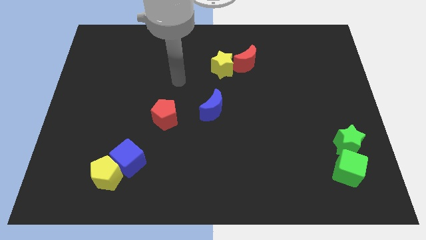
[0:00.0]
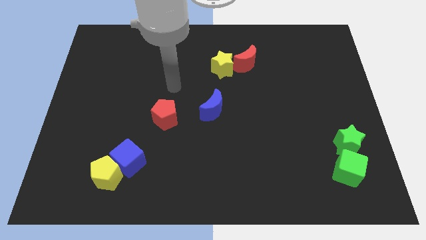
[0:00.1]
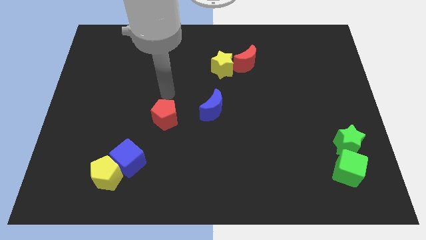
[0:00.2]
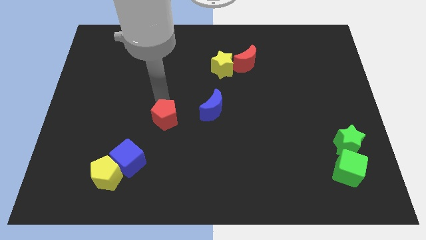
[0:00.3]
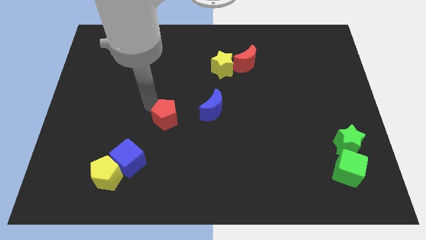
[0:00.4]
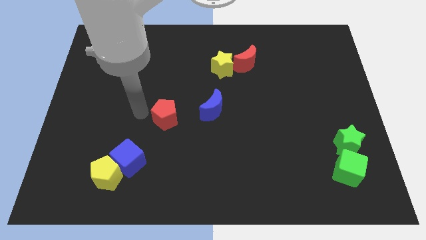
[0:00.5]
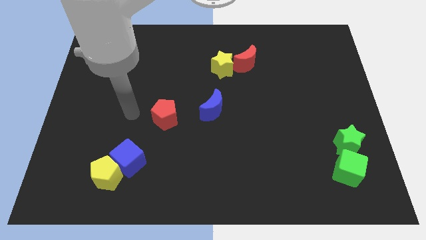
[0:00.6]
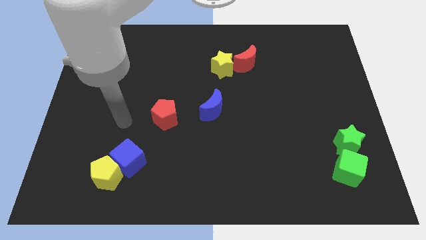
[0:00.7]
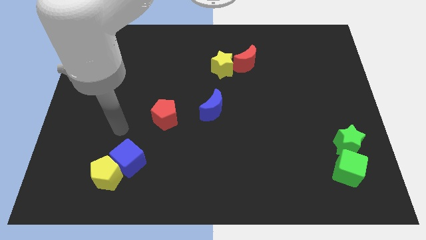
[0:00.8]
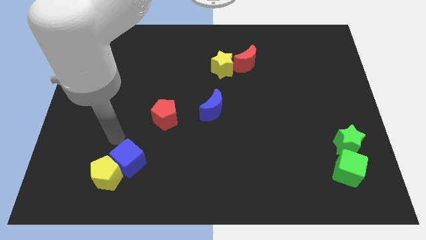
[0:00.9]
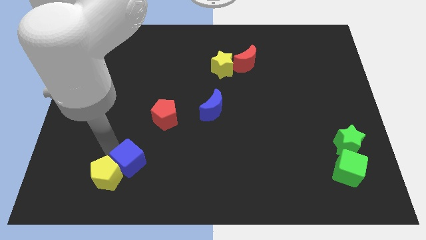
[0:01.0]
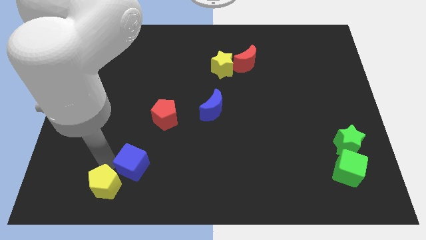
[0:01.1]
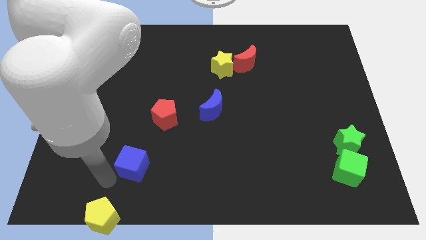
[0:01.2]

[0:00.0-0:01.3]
separate the blue cube from the yellow pentagon

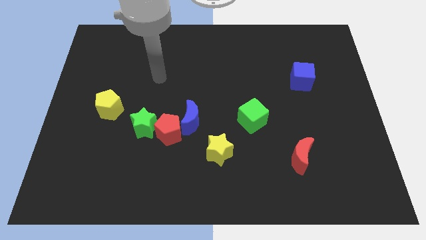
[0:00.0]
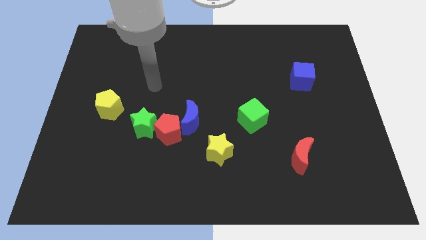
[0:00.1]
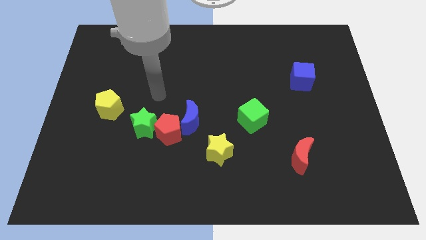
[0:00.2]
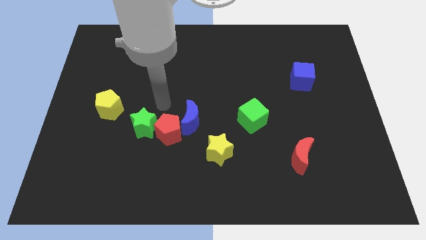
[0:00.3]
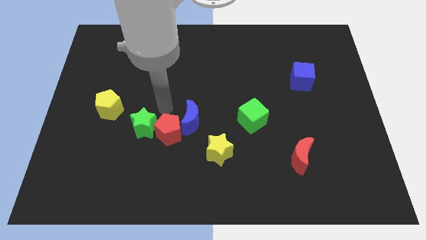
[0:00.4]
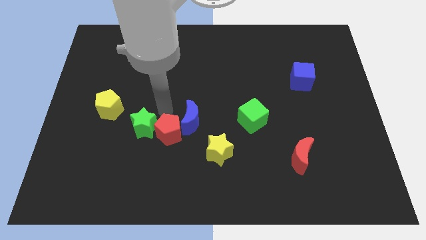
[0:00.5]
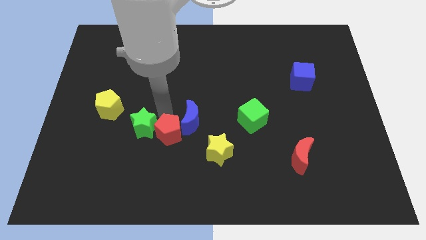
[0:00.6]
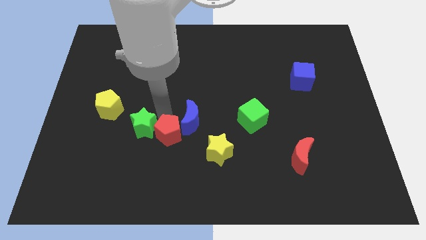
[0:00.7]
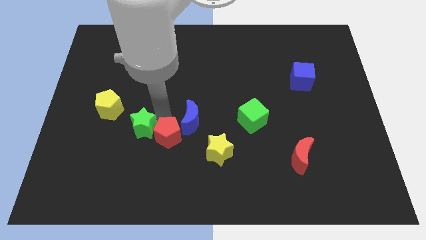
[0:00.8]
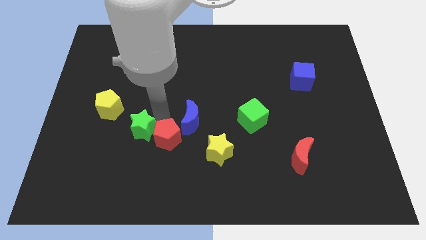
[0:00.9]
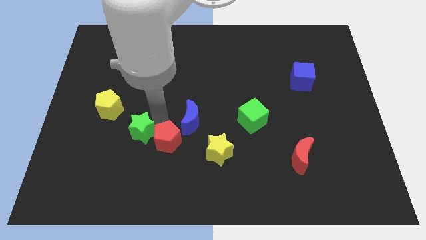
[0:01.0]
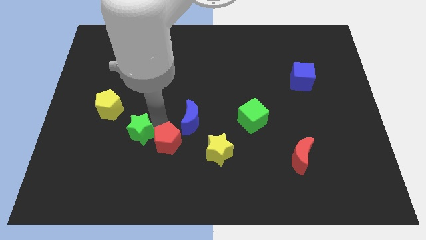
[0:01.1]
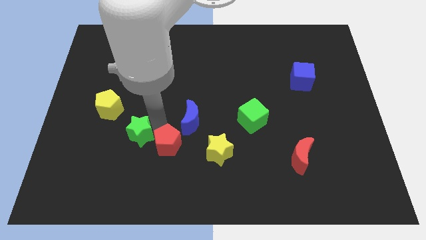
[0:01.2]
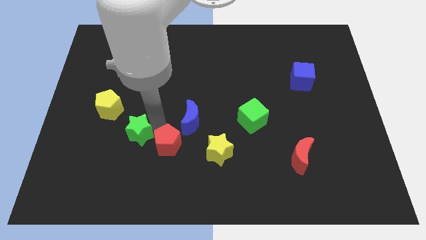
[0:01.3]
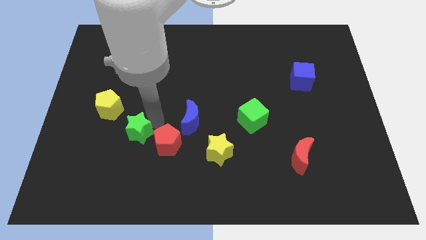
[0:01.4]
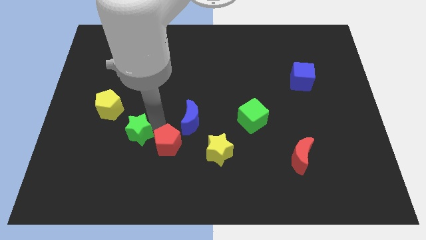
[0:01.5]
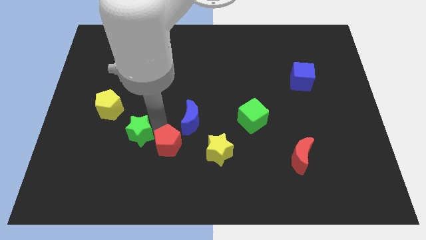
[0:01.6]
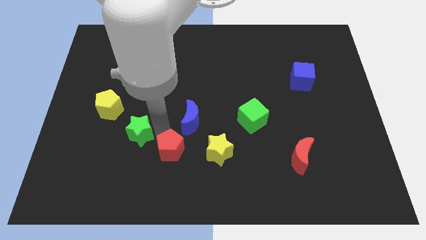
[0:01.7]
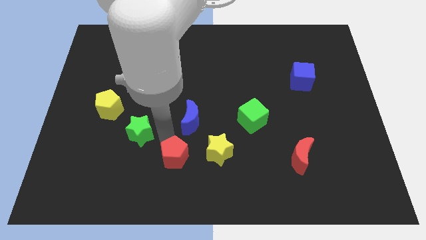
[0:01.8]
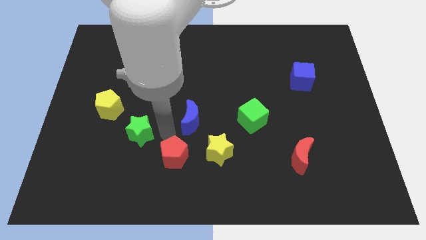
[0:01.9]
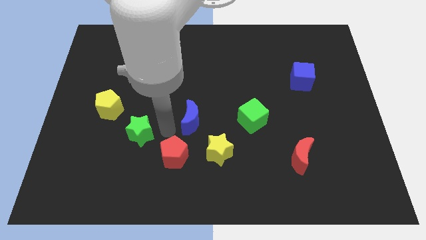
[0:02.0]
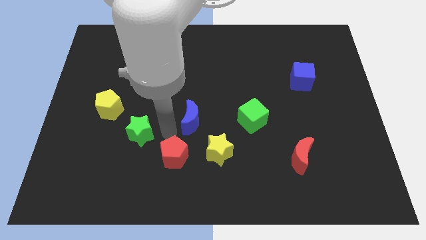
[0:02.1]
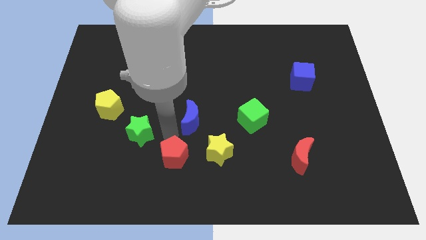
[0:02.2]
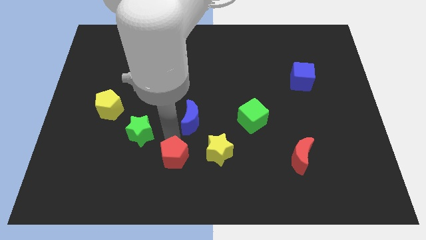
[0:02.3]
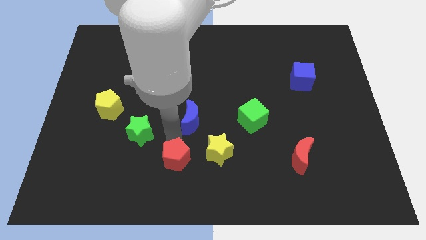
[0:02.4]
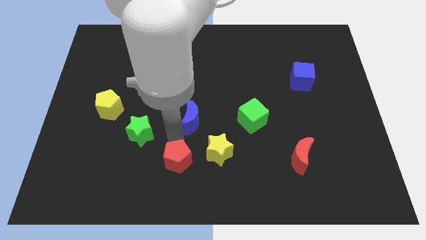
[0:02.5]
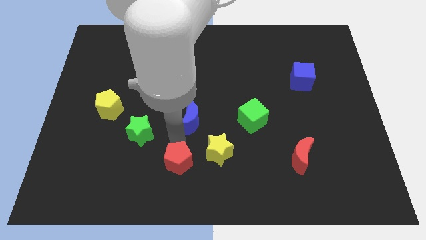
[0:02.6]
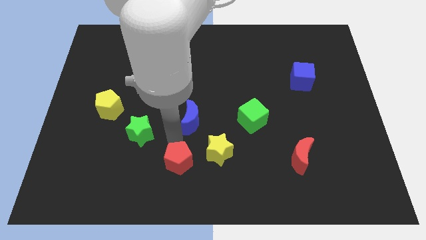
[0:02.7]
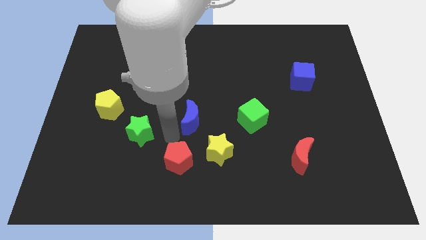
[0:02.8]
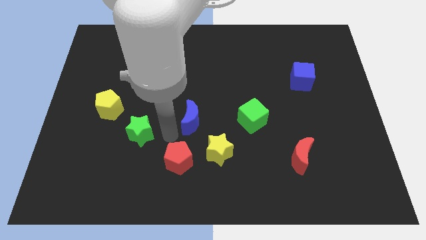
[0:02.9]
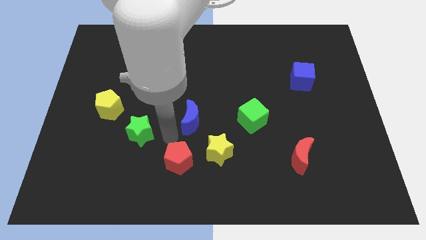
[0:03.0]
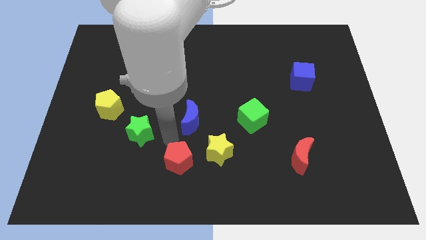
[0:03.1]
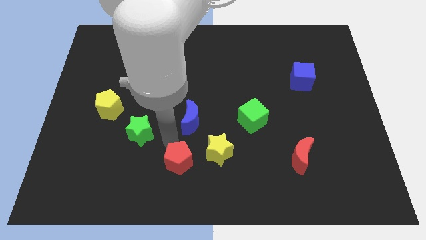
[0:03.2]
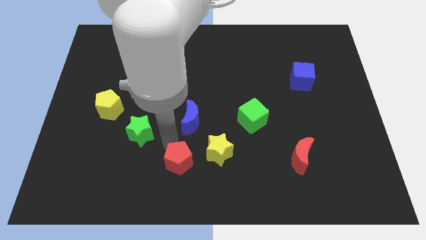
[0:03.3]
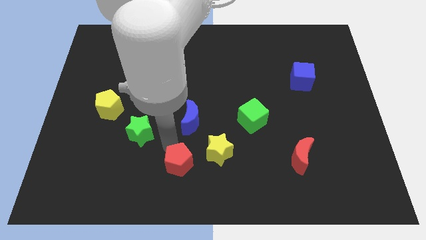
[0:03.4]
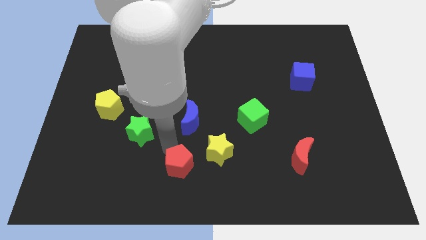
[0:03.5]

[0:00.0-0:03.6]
separate the red pentagon from the blue moon and green star

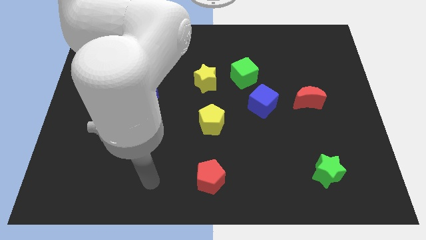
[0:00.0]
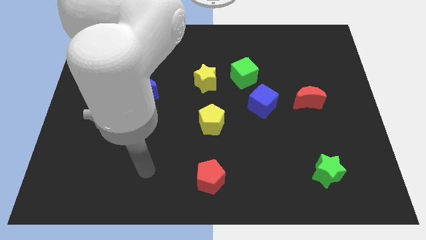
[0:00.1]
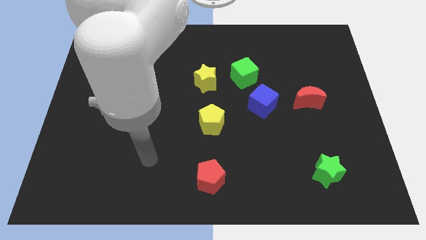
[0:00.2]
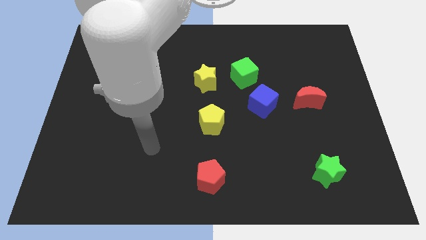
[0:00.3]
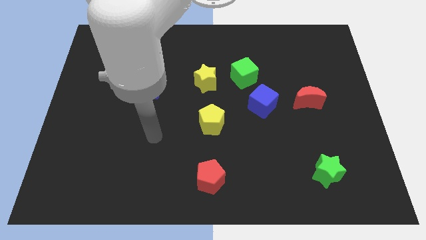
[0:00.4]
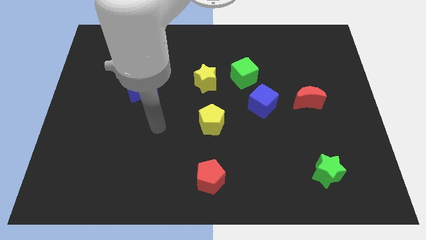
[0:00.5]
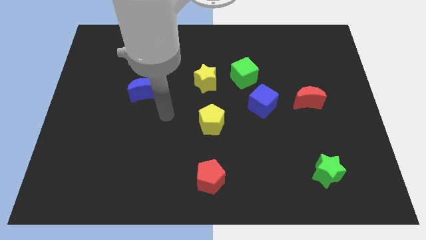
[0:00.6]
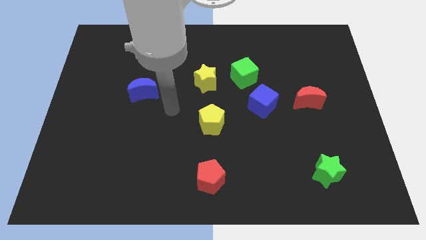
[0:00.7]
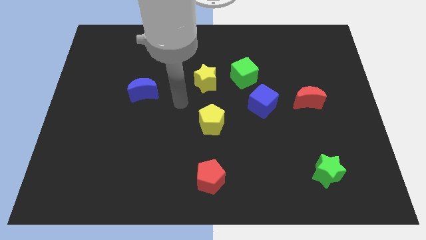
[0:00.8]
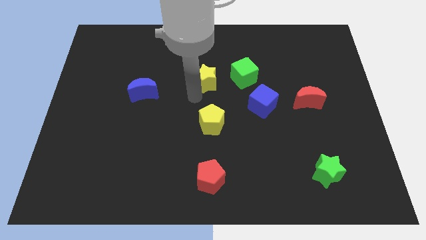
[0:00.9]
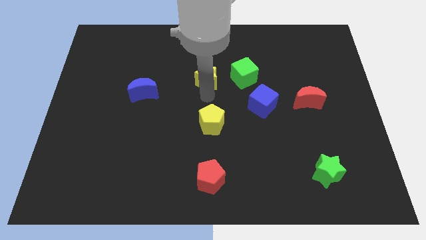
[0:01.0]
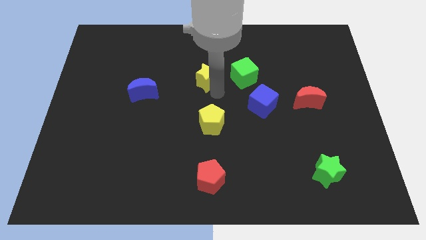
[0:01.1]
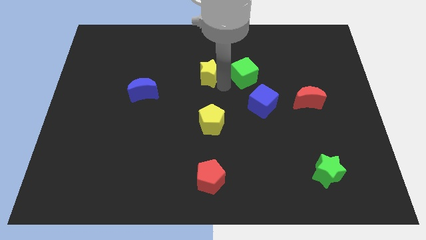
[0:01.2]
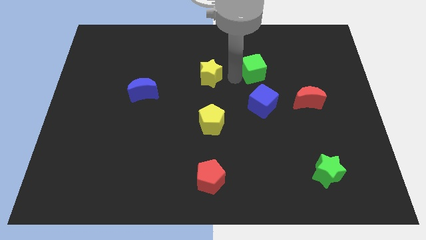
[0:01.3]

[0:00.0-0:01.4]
pull the yellow star apart from the green cube

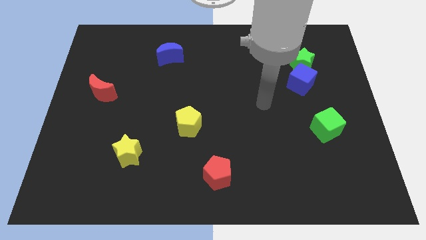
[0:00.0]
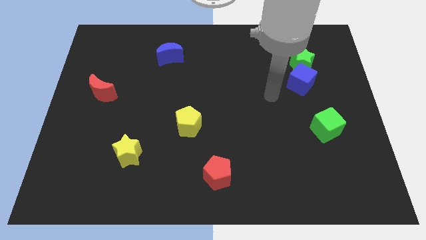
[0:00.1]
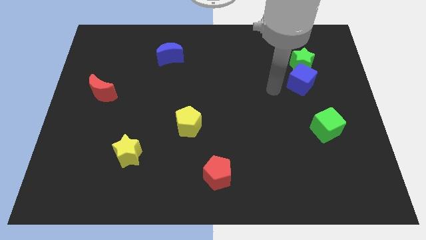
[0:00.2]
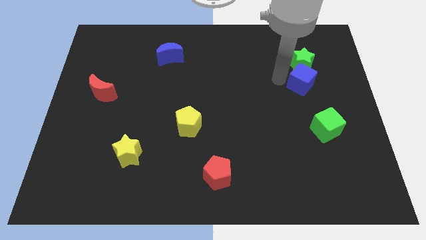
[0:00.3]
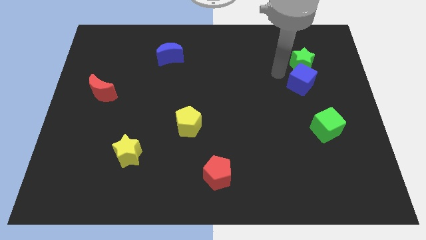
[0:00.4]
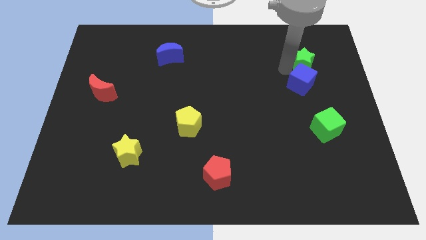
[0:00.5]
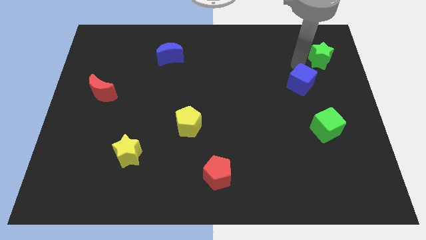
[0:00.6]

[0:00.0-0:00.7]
move the blue cube away from the green star

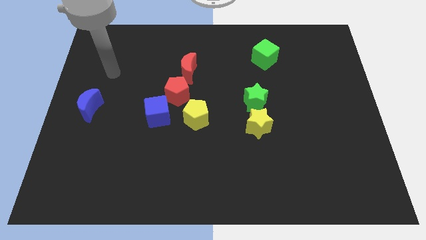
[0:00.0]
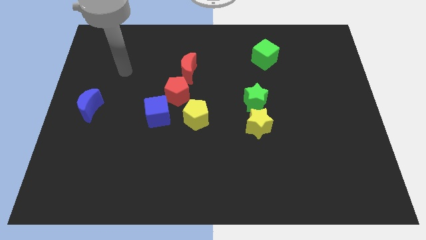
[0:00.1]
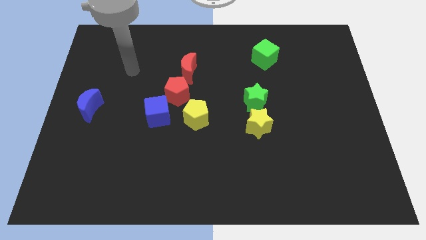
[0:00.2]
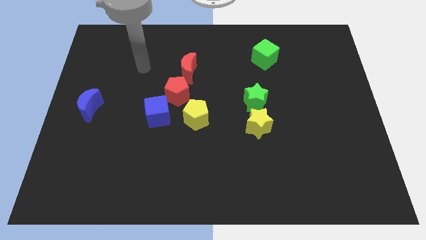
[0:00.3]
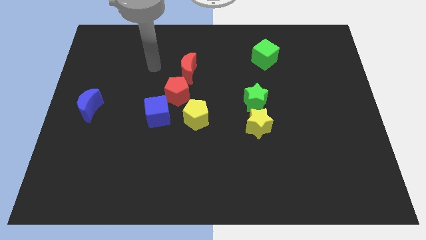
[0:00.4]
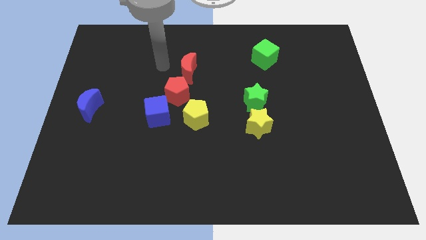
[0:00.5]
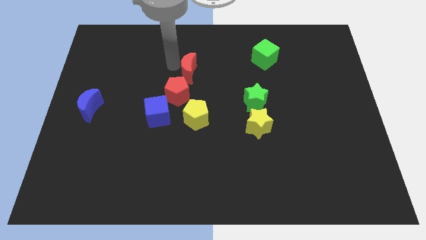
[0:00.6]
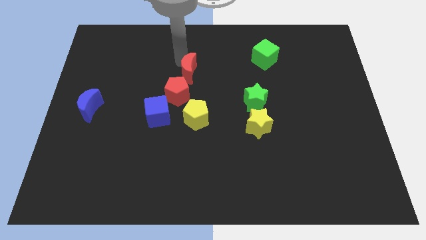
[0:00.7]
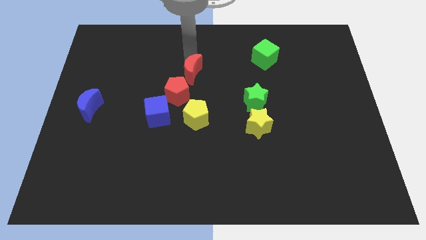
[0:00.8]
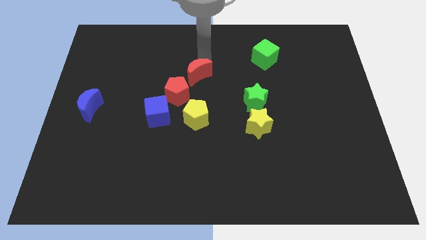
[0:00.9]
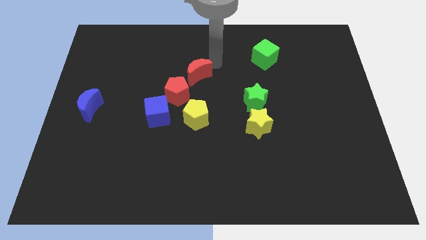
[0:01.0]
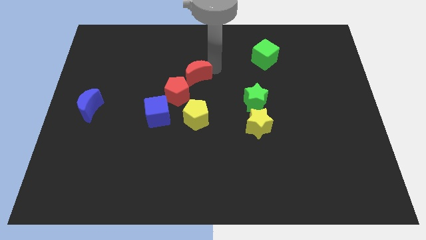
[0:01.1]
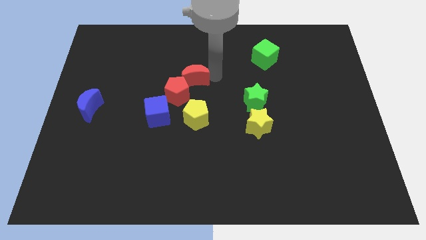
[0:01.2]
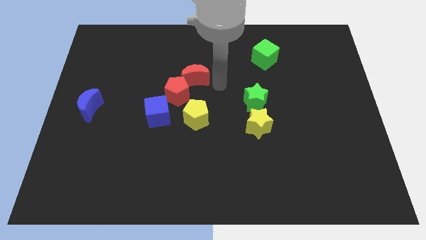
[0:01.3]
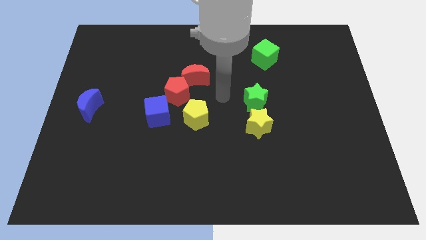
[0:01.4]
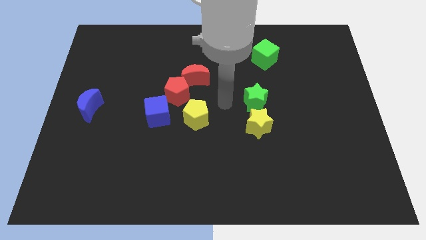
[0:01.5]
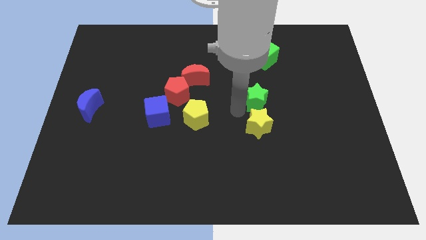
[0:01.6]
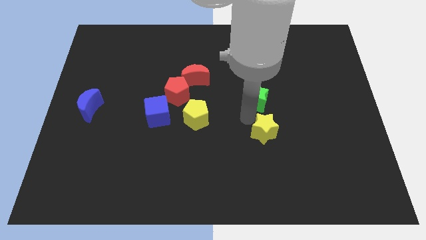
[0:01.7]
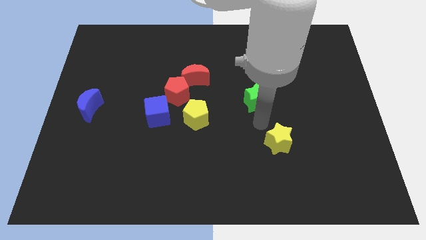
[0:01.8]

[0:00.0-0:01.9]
pull the green star apart from the yellow star

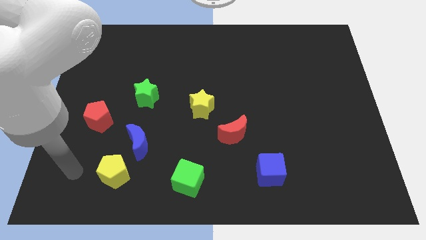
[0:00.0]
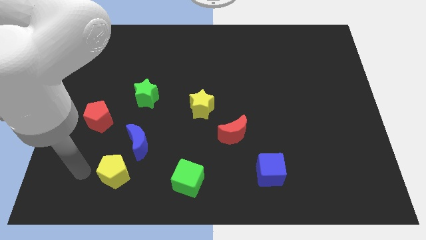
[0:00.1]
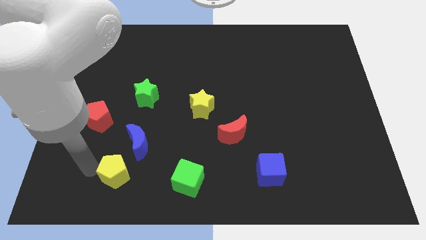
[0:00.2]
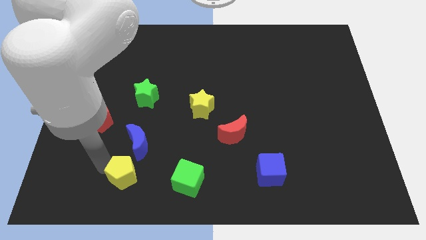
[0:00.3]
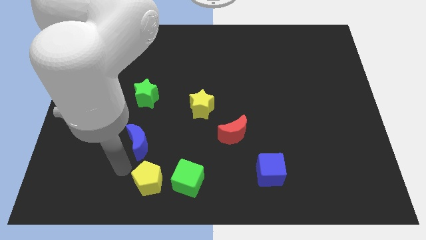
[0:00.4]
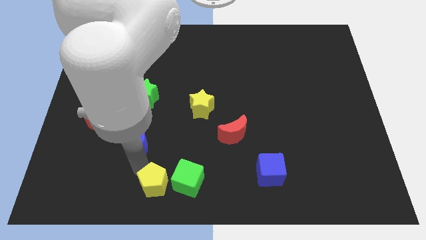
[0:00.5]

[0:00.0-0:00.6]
separate the blue moon from the yellow pentagon
